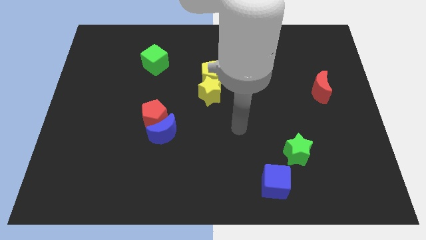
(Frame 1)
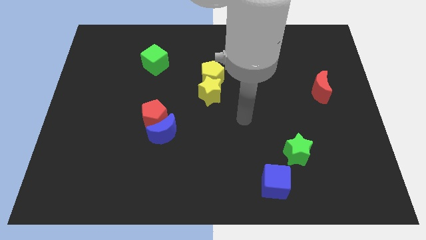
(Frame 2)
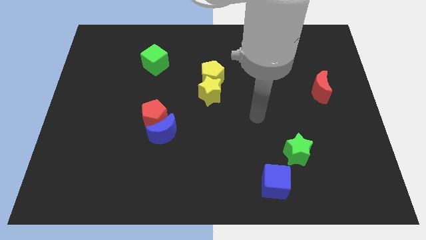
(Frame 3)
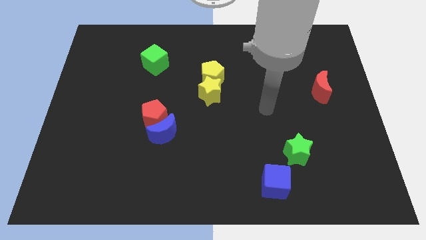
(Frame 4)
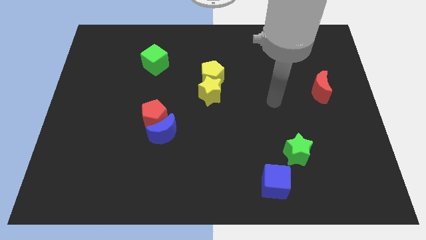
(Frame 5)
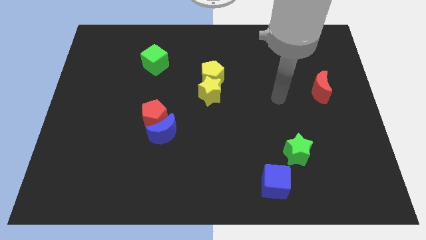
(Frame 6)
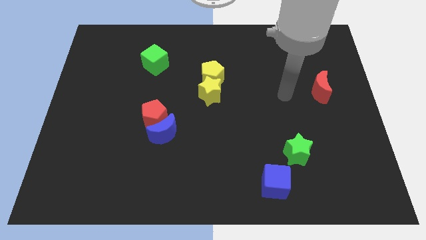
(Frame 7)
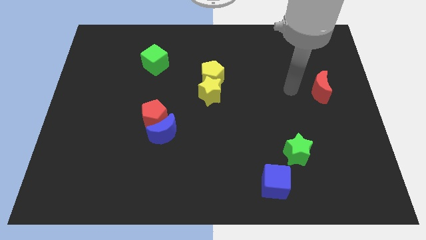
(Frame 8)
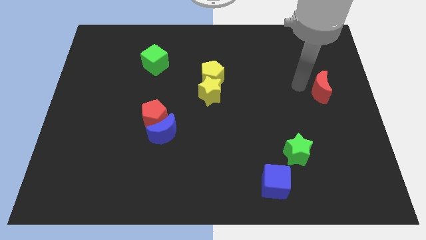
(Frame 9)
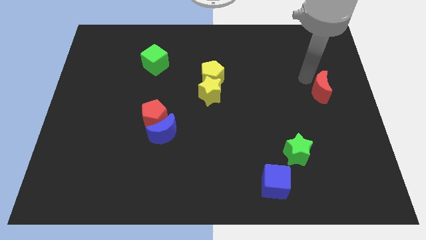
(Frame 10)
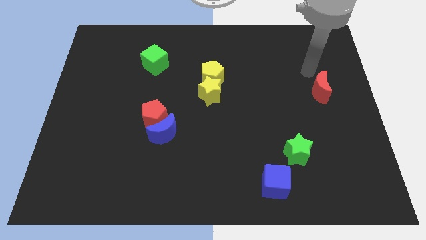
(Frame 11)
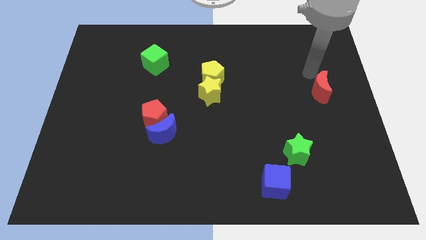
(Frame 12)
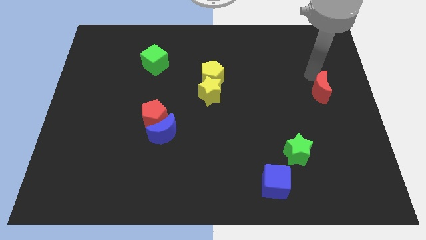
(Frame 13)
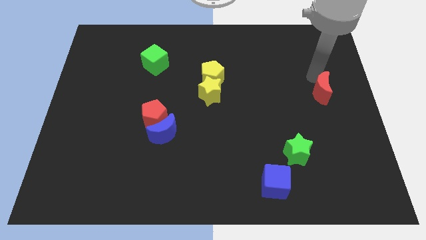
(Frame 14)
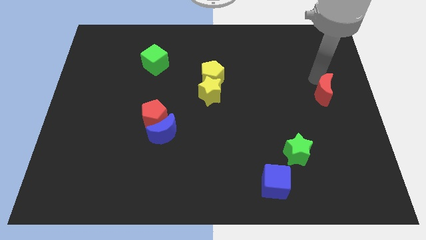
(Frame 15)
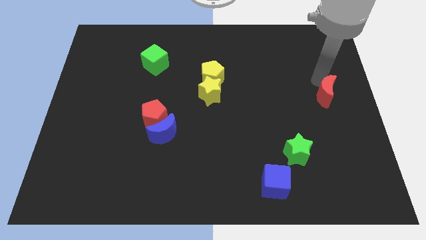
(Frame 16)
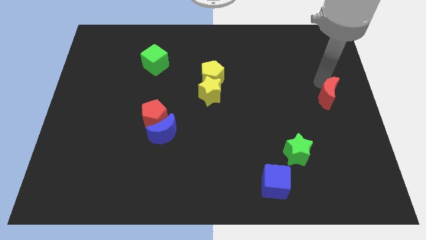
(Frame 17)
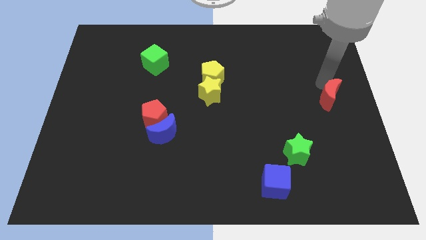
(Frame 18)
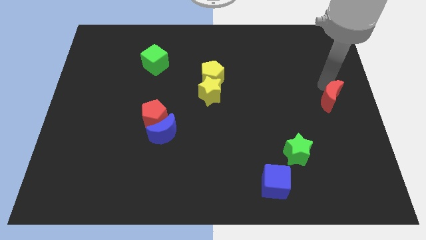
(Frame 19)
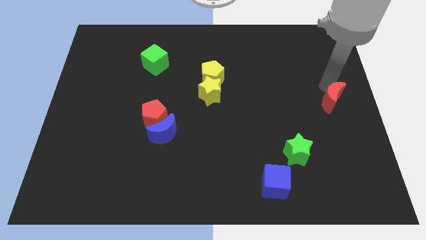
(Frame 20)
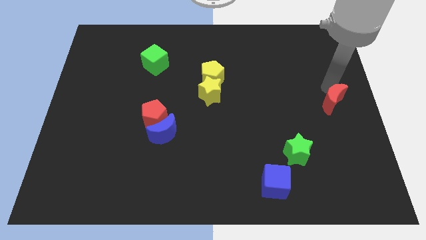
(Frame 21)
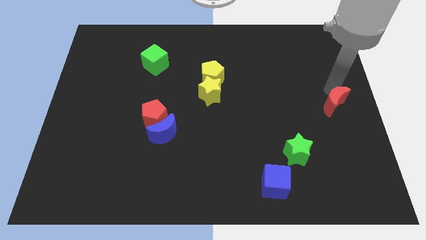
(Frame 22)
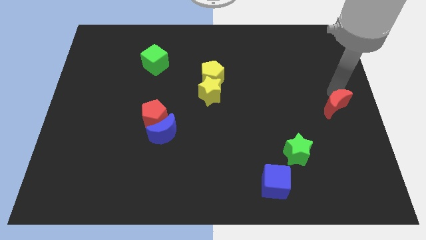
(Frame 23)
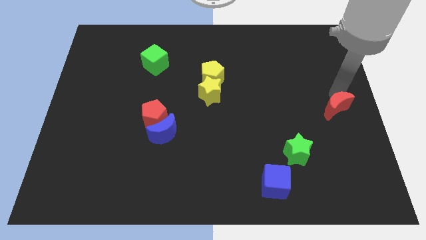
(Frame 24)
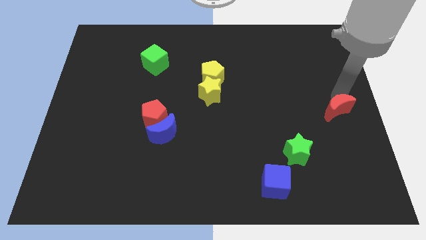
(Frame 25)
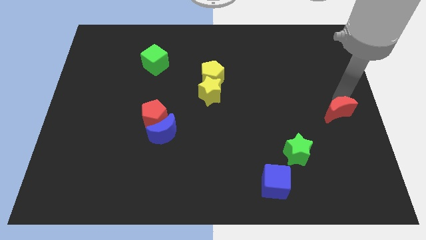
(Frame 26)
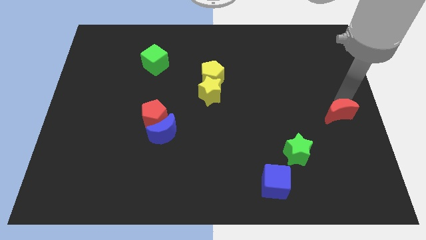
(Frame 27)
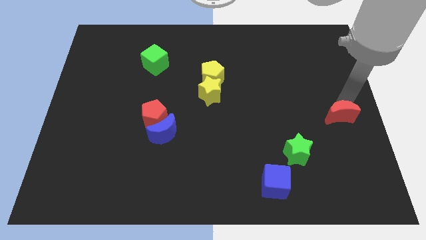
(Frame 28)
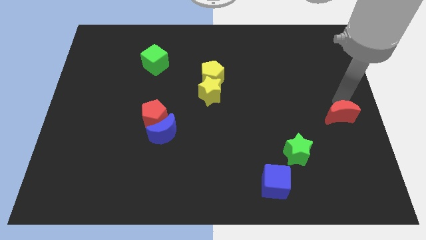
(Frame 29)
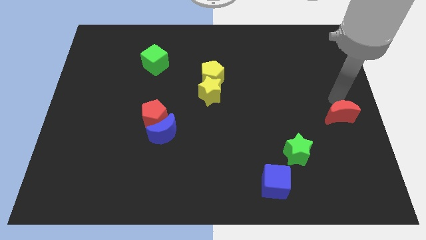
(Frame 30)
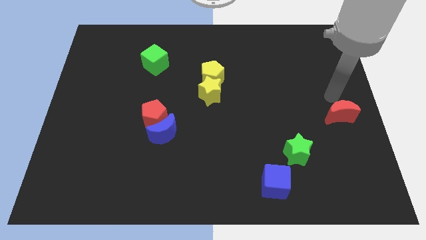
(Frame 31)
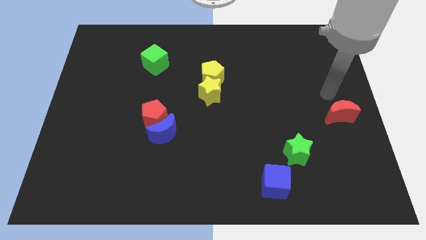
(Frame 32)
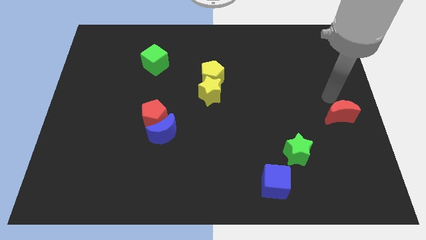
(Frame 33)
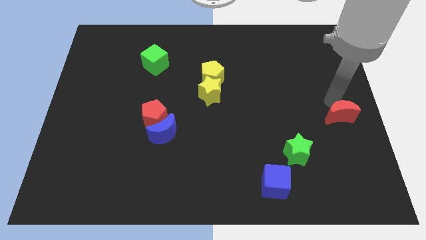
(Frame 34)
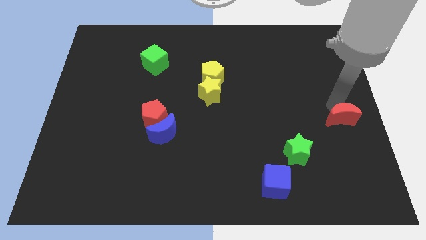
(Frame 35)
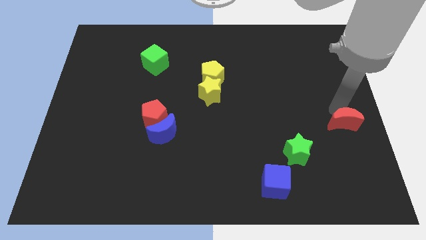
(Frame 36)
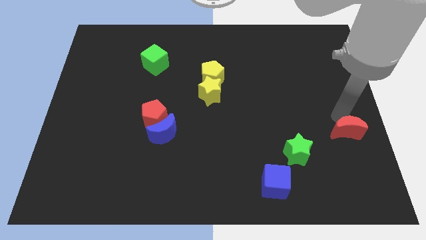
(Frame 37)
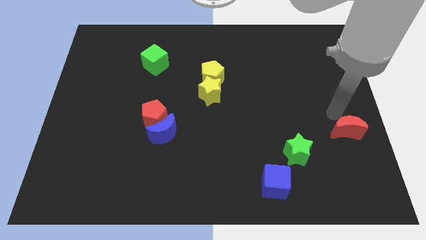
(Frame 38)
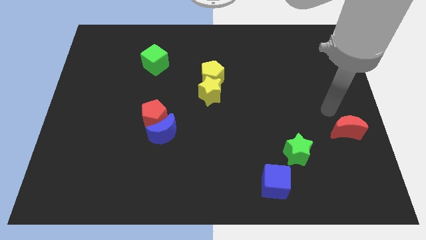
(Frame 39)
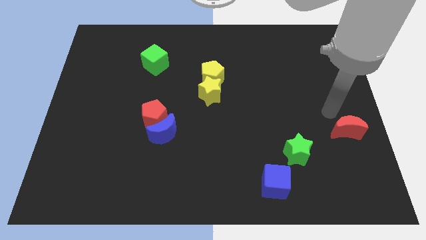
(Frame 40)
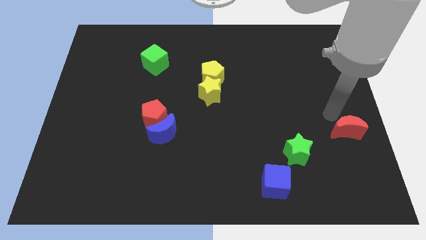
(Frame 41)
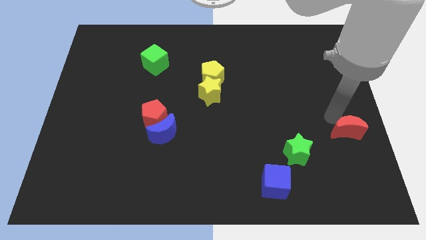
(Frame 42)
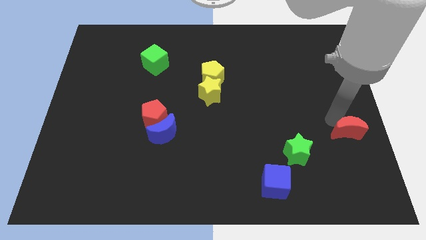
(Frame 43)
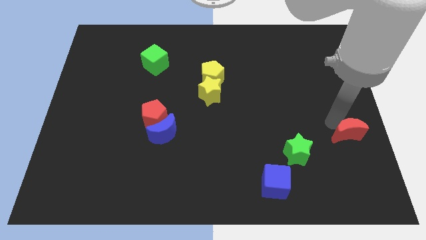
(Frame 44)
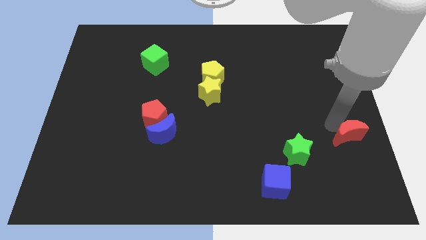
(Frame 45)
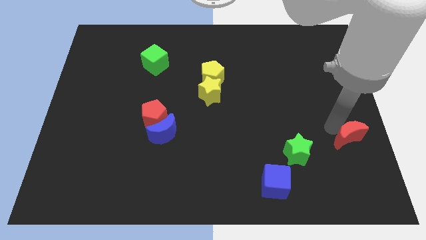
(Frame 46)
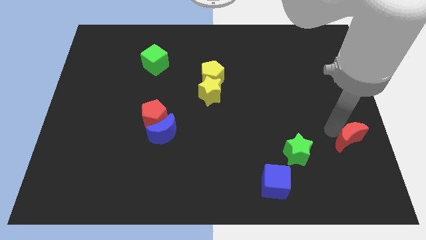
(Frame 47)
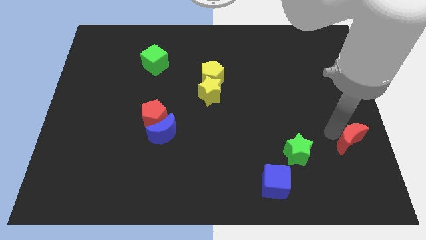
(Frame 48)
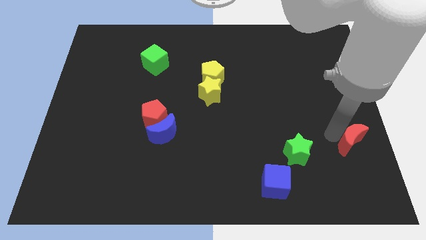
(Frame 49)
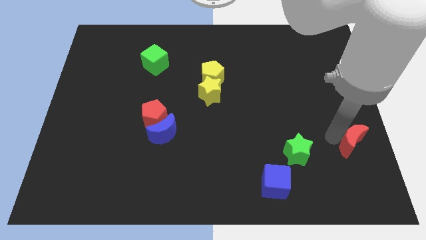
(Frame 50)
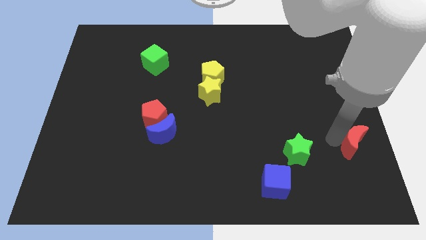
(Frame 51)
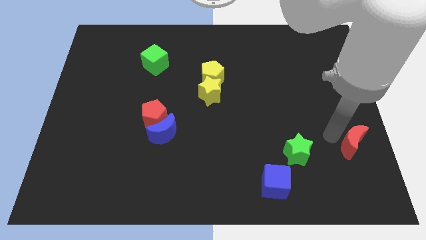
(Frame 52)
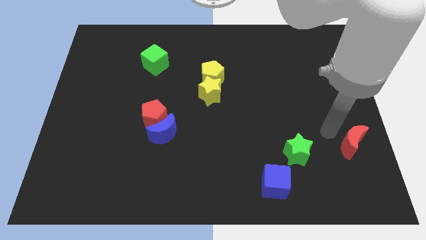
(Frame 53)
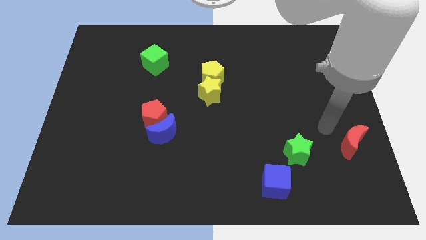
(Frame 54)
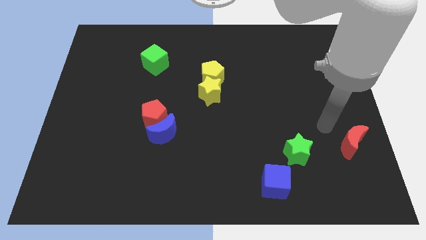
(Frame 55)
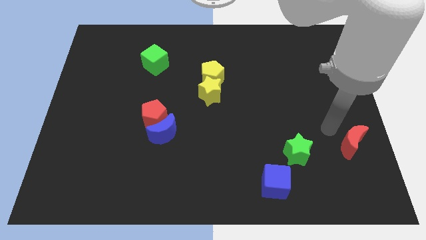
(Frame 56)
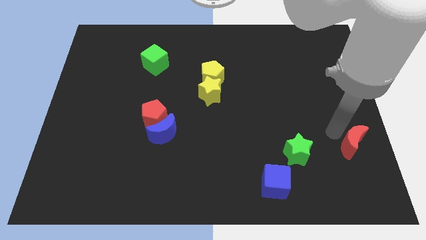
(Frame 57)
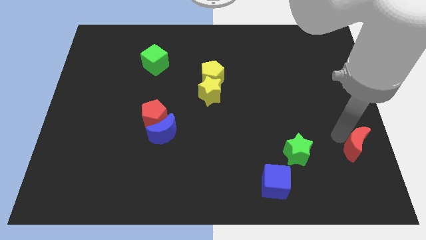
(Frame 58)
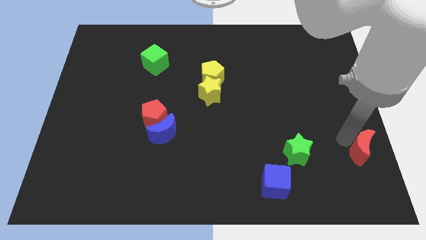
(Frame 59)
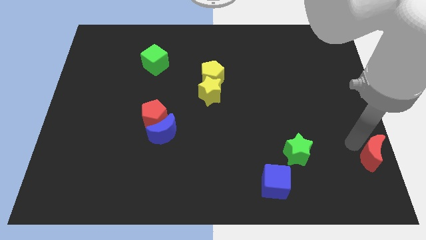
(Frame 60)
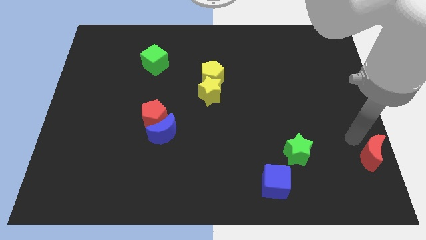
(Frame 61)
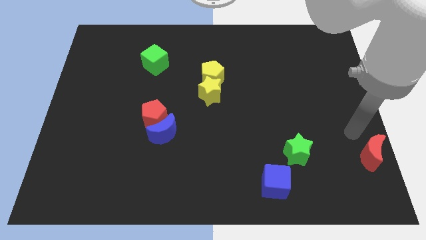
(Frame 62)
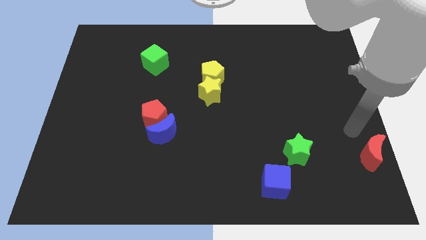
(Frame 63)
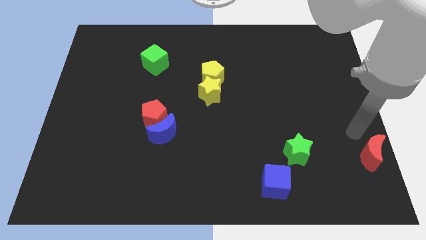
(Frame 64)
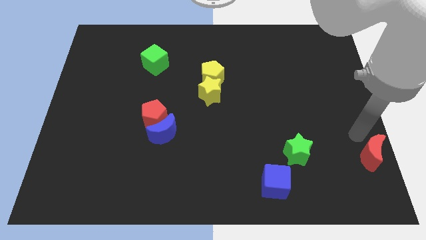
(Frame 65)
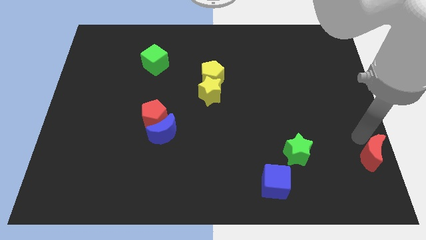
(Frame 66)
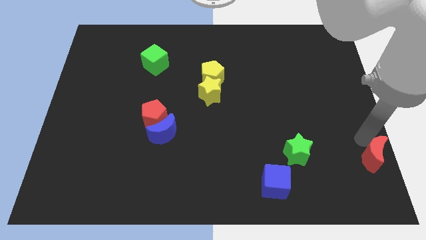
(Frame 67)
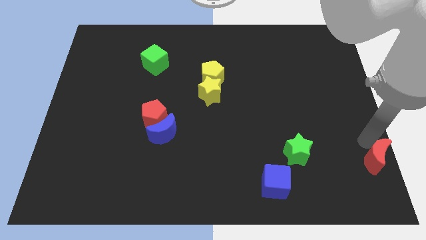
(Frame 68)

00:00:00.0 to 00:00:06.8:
slide the red moon to the lower right corner
